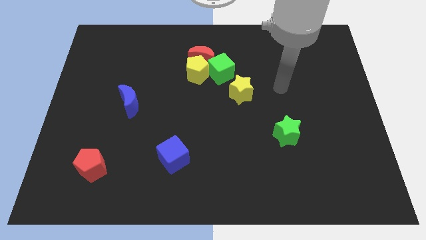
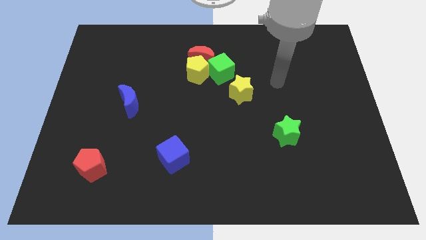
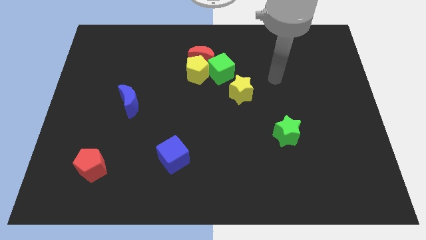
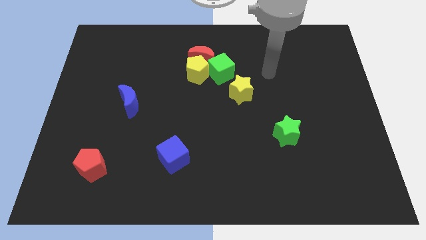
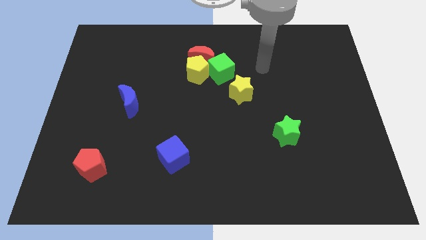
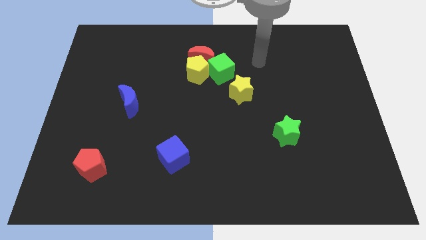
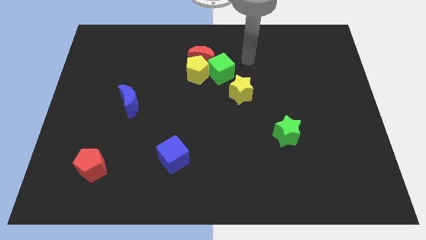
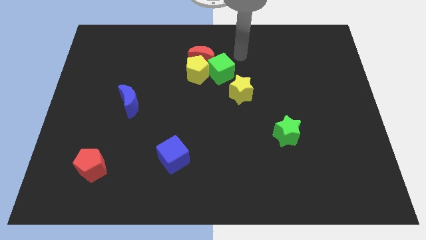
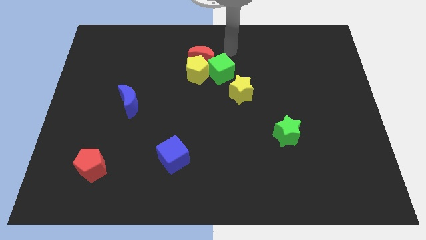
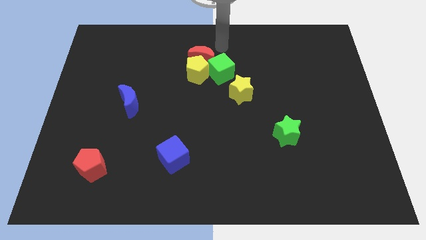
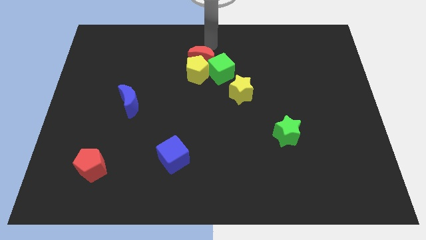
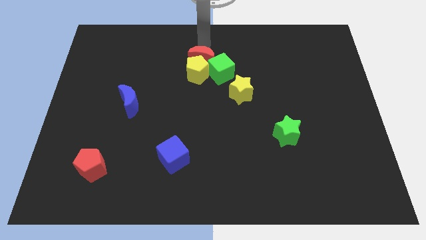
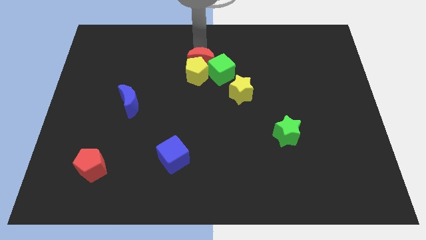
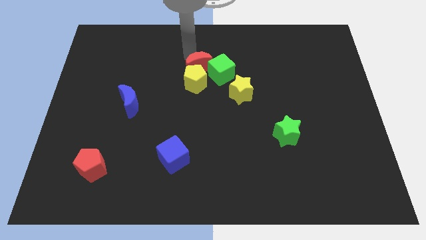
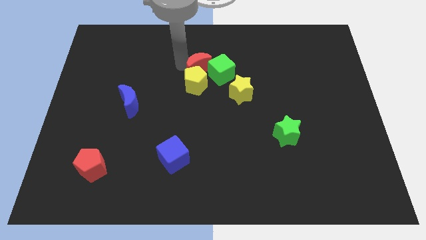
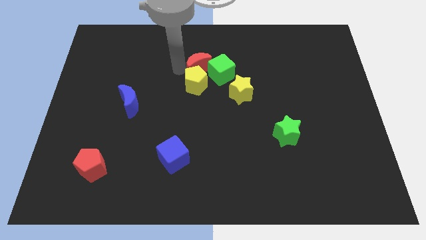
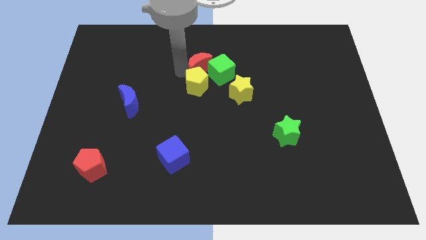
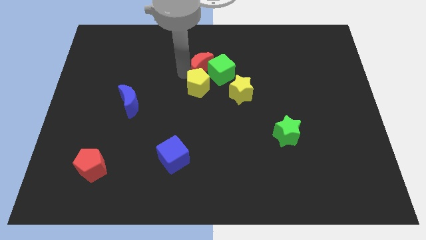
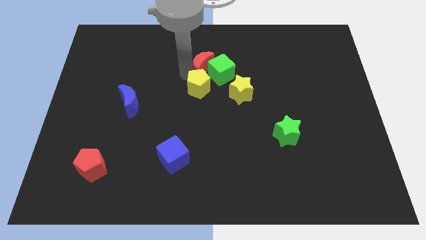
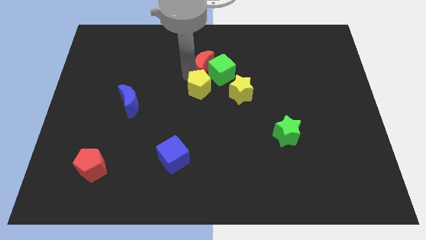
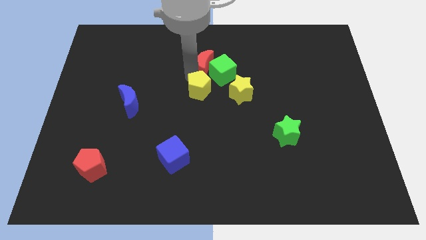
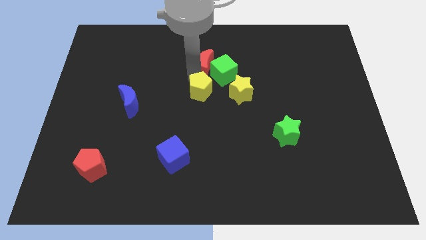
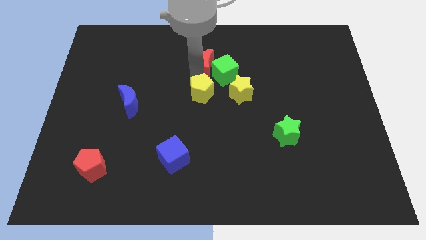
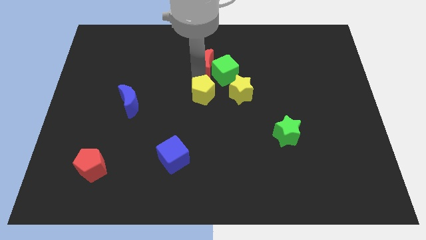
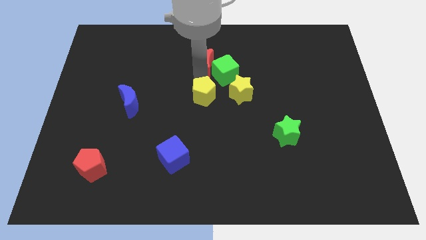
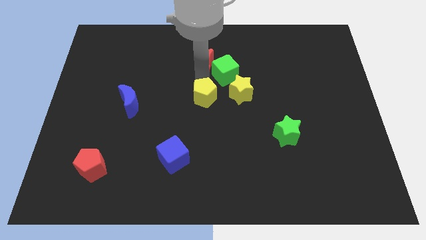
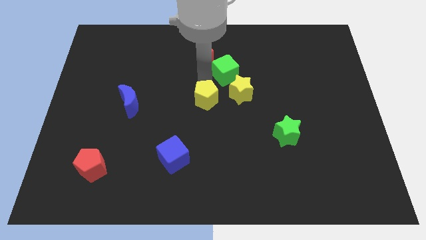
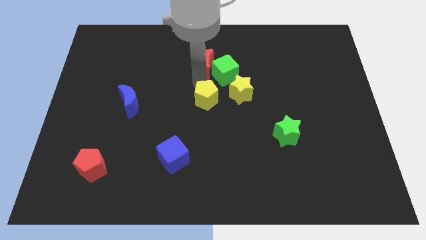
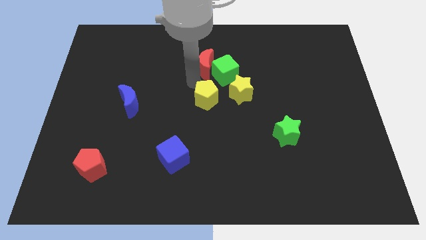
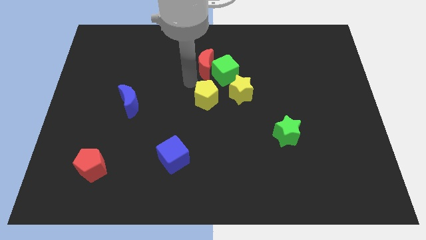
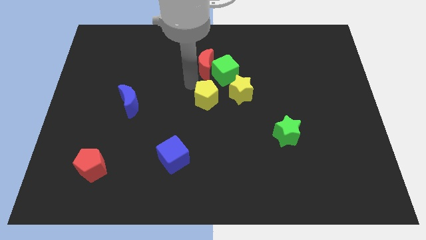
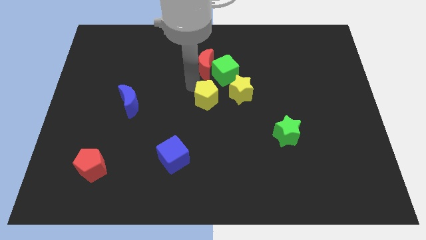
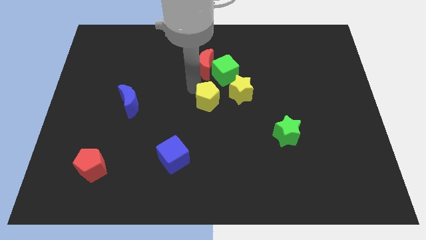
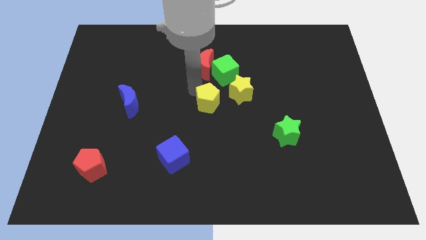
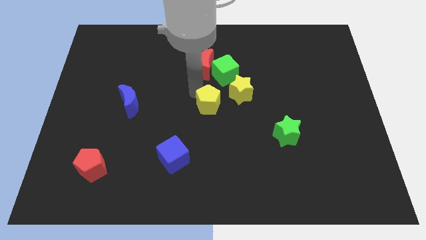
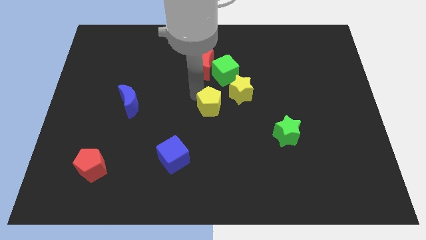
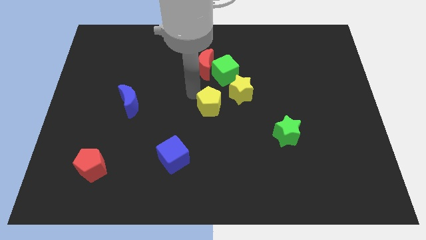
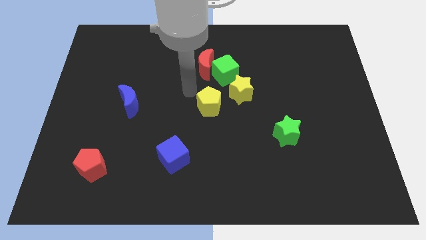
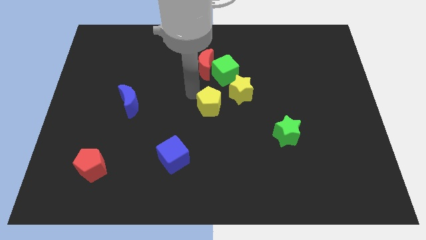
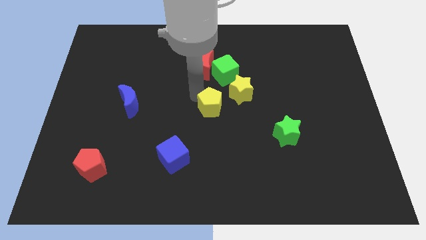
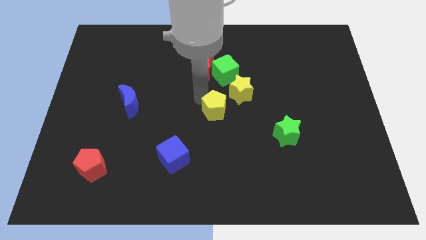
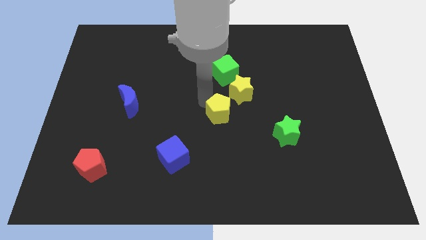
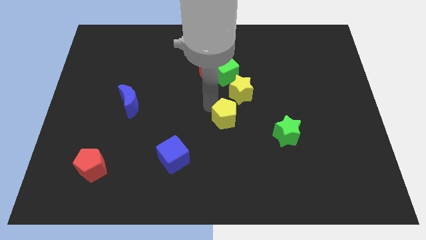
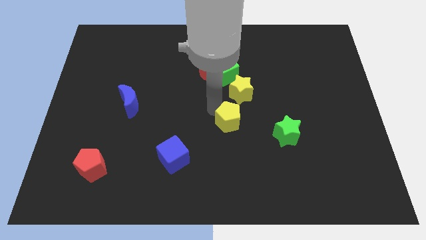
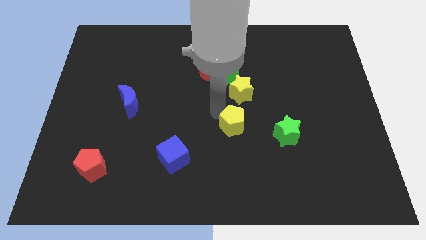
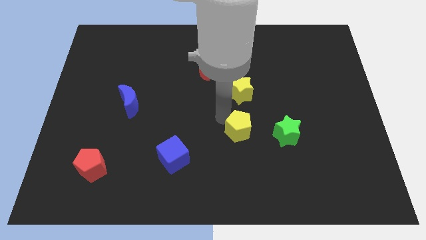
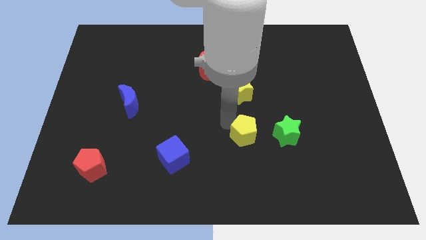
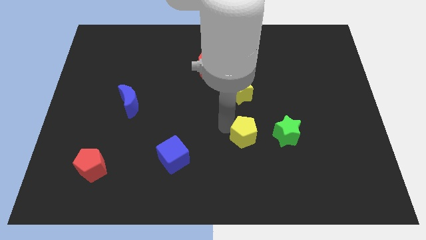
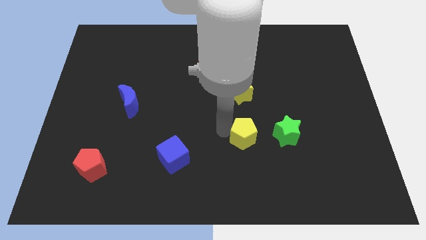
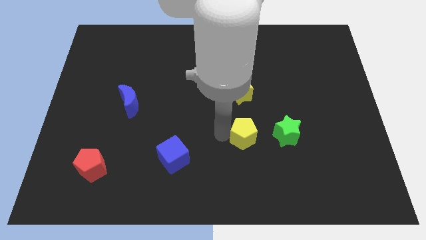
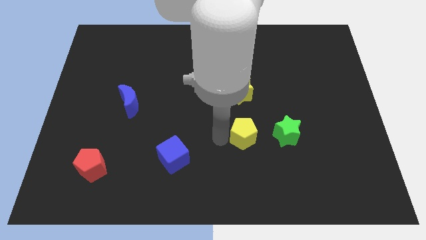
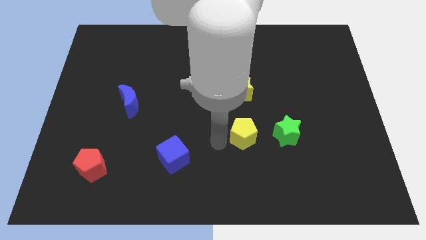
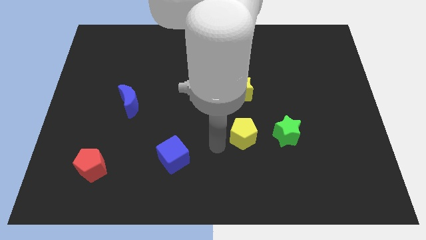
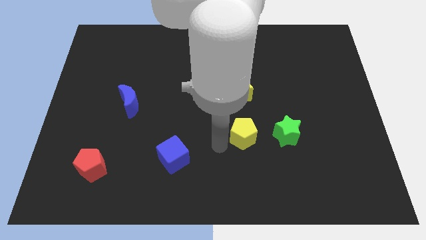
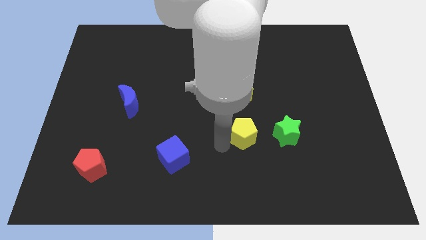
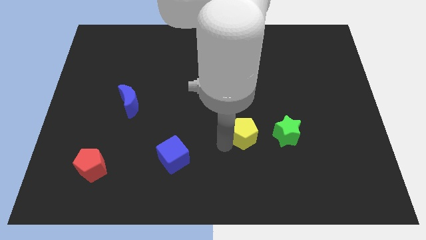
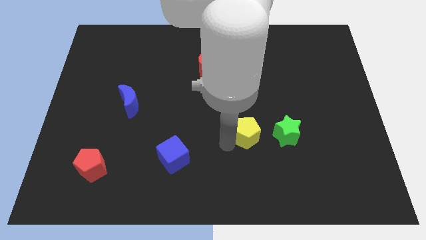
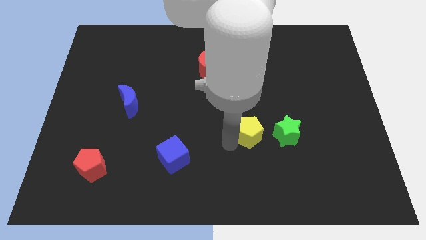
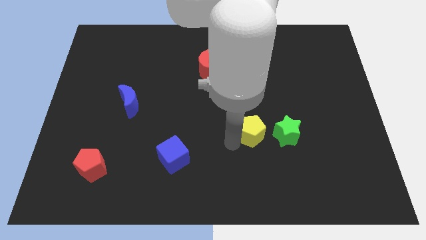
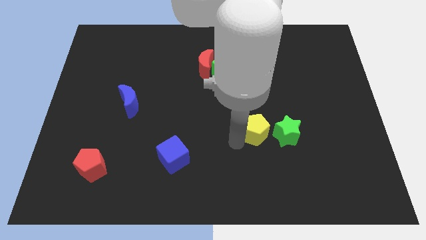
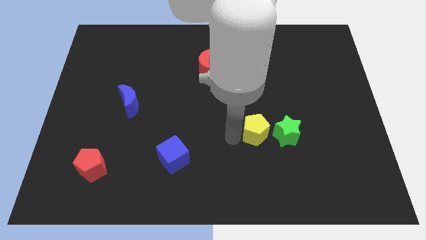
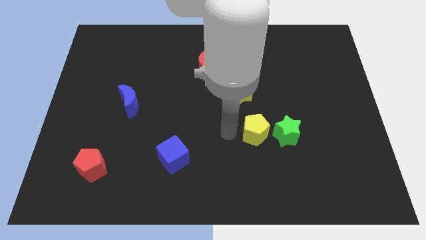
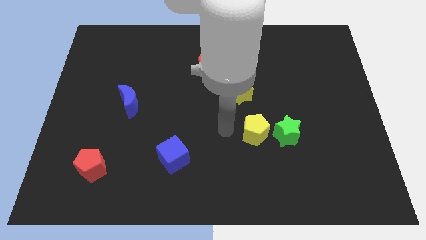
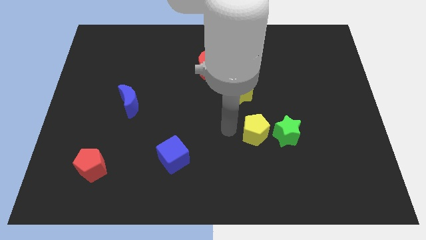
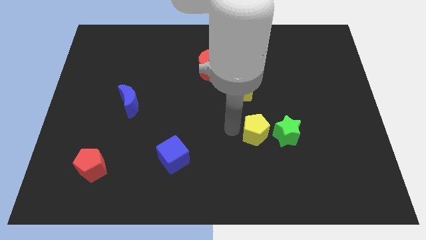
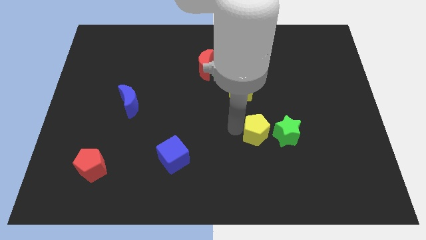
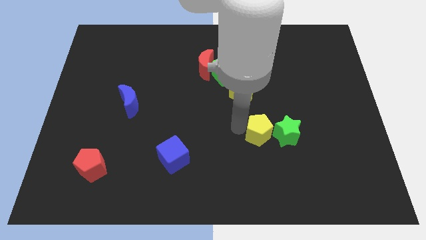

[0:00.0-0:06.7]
put the yellow pentagon to the green star

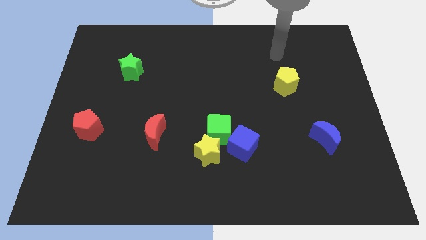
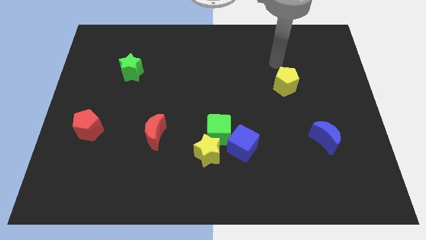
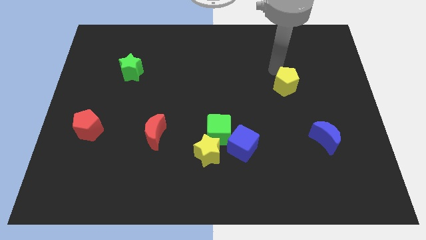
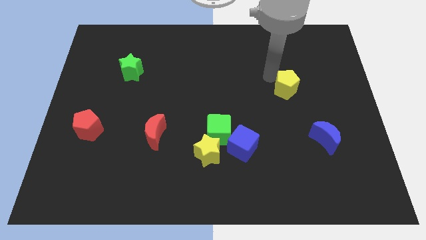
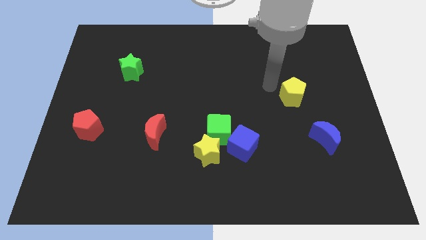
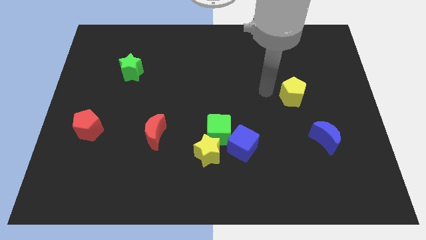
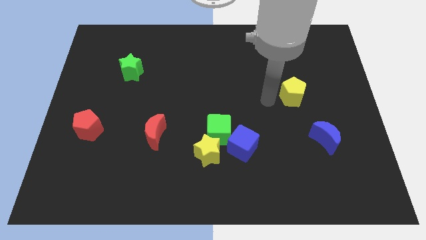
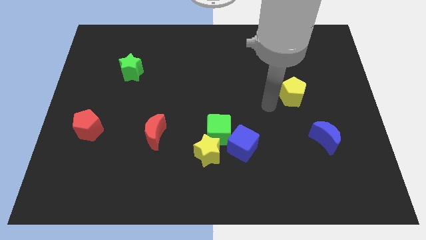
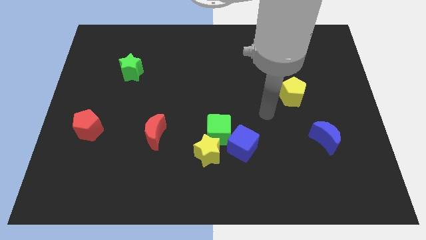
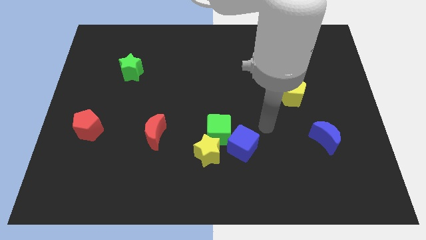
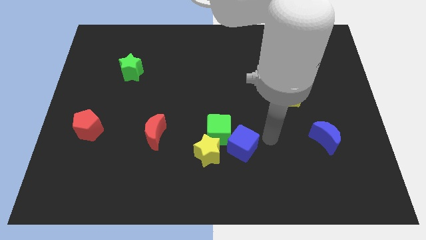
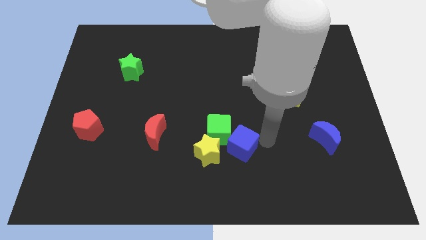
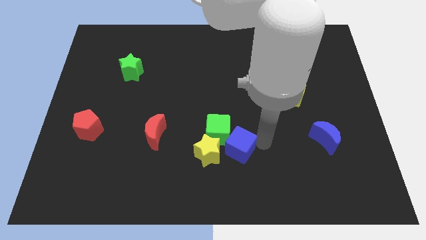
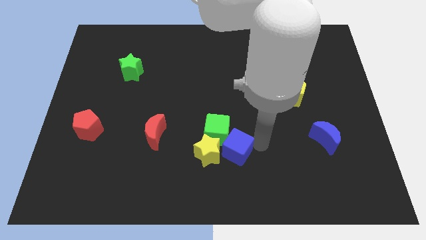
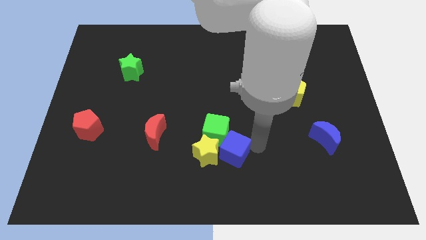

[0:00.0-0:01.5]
push the blue cube close to the yellow star
